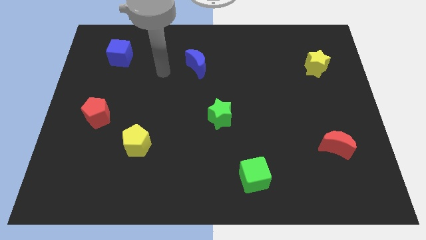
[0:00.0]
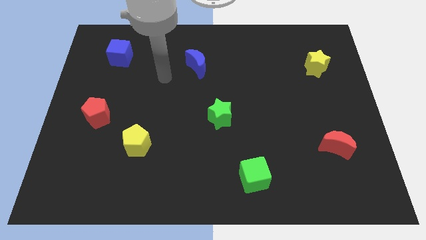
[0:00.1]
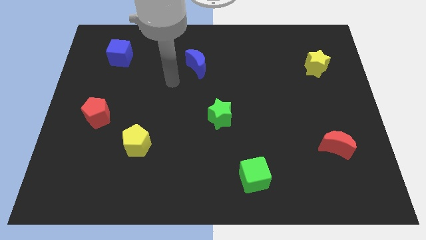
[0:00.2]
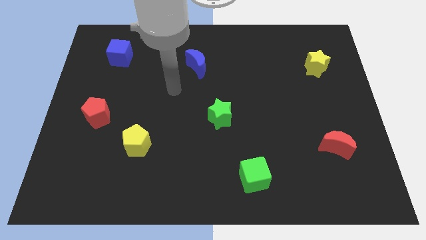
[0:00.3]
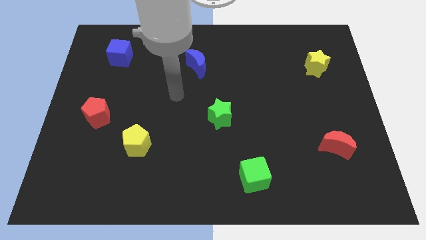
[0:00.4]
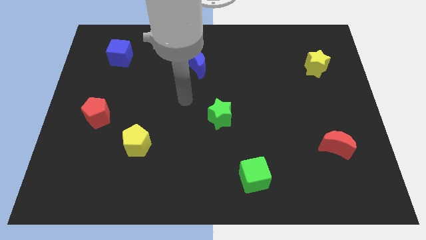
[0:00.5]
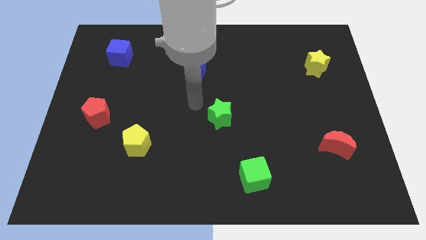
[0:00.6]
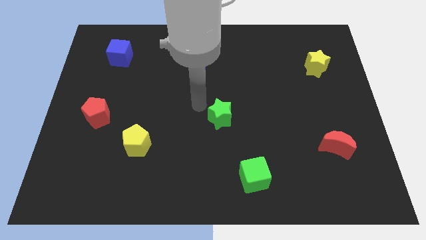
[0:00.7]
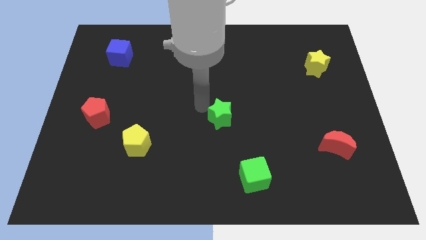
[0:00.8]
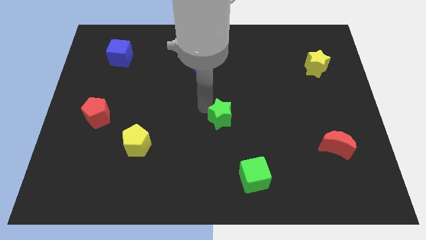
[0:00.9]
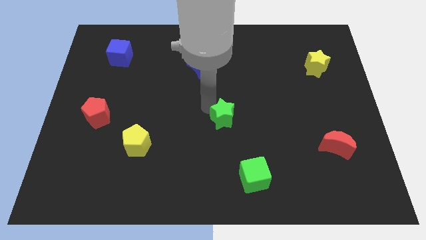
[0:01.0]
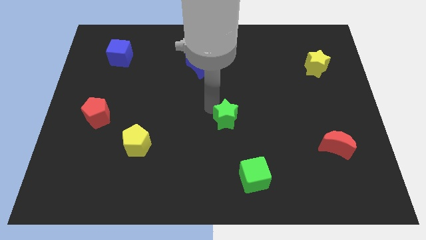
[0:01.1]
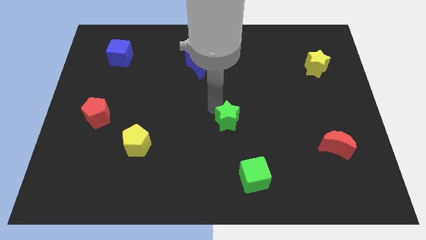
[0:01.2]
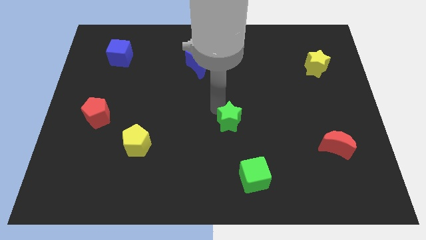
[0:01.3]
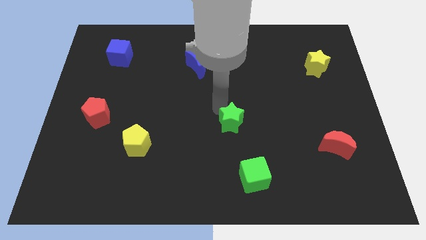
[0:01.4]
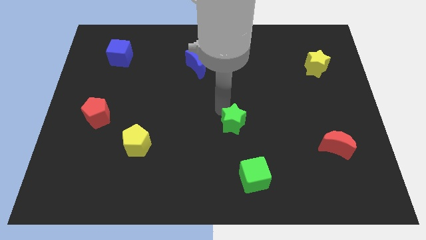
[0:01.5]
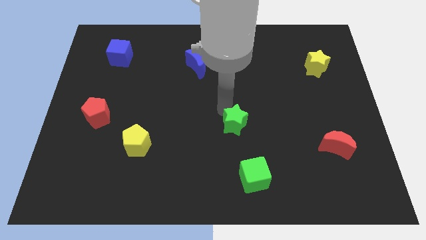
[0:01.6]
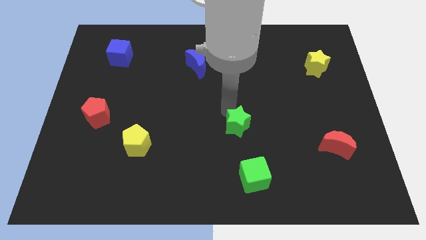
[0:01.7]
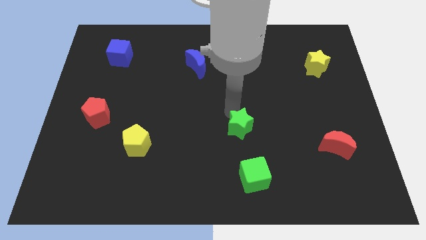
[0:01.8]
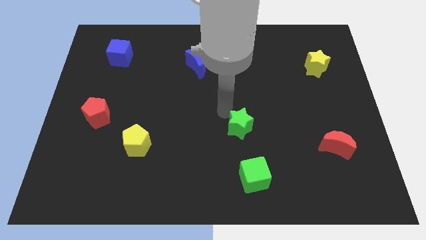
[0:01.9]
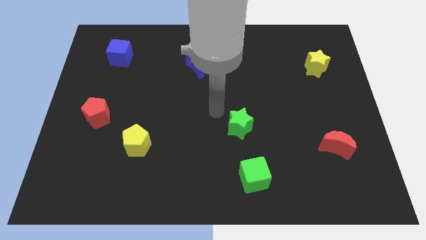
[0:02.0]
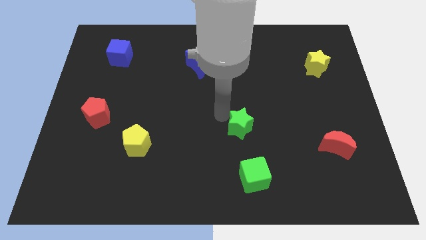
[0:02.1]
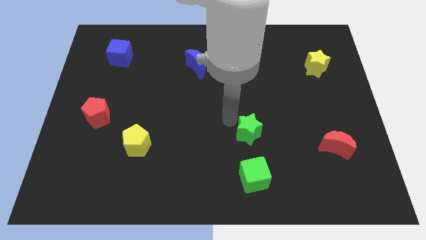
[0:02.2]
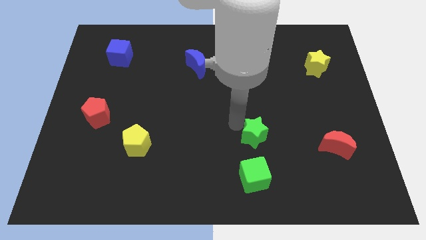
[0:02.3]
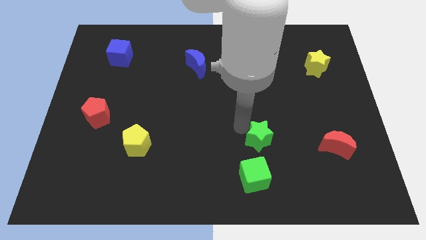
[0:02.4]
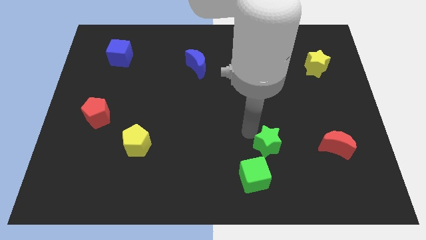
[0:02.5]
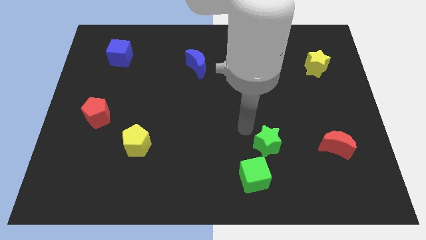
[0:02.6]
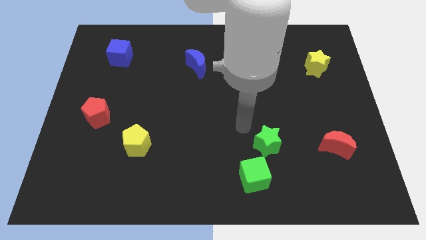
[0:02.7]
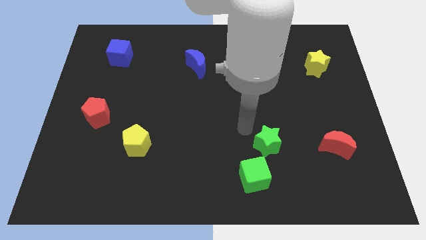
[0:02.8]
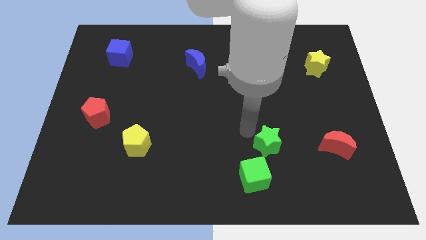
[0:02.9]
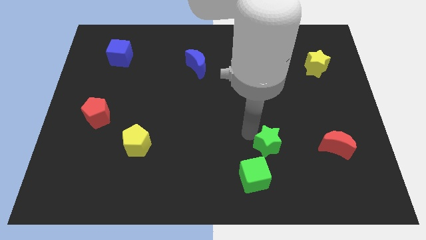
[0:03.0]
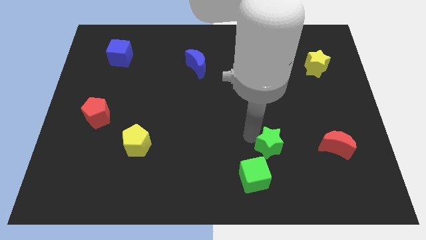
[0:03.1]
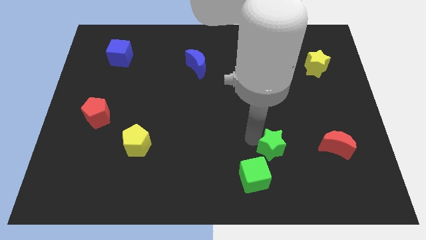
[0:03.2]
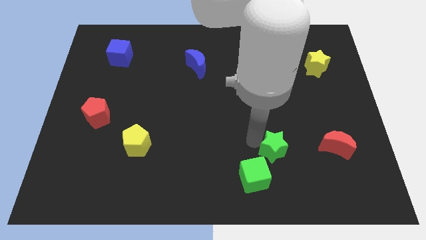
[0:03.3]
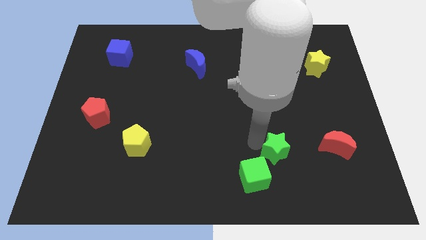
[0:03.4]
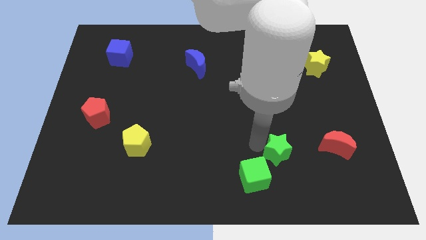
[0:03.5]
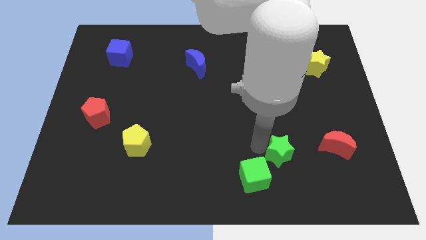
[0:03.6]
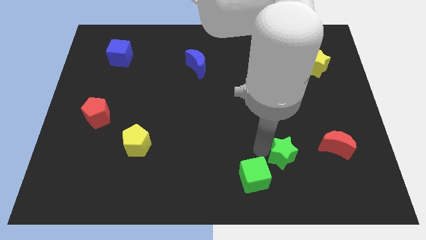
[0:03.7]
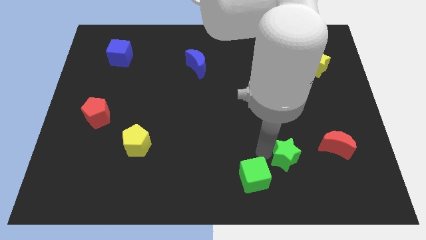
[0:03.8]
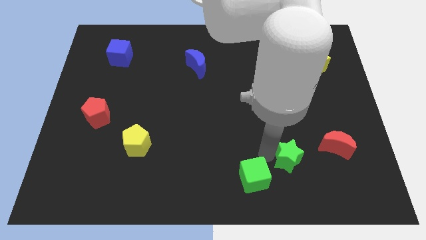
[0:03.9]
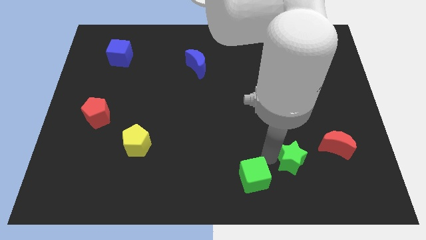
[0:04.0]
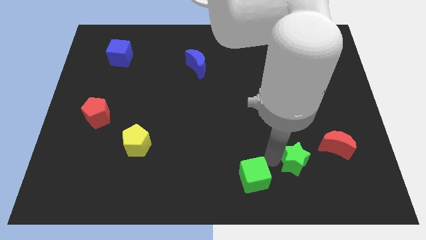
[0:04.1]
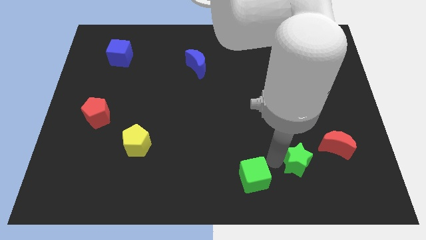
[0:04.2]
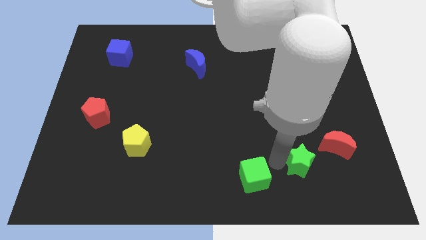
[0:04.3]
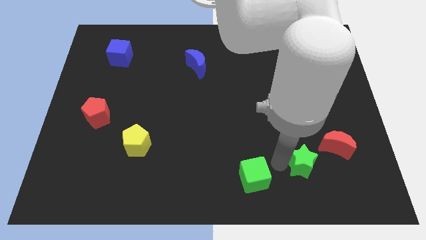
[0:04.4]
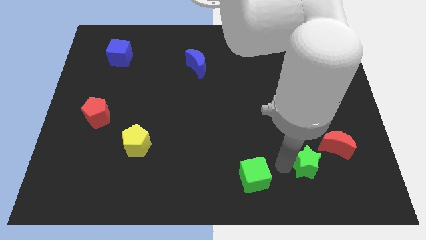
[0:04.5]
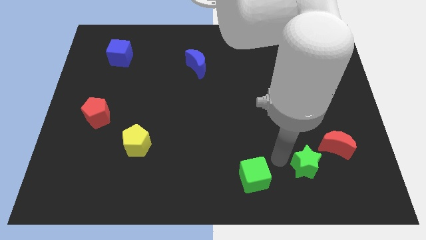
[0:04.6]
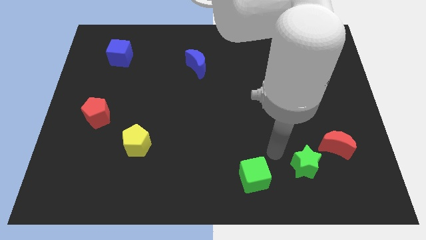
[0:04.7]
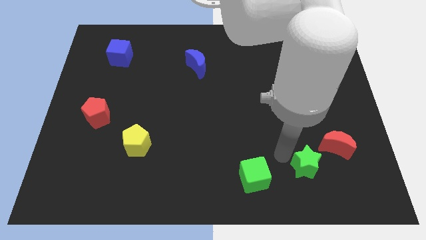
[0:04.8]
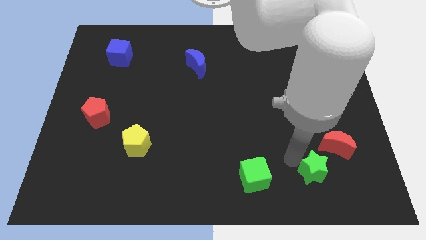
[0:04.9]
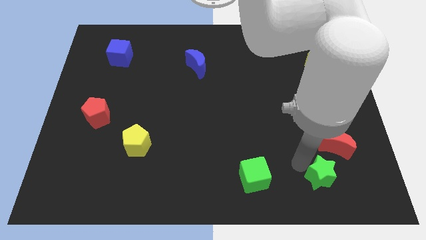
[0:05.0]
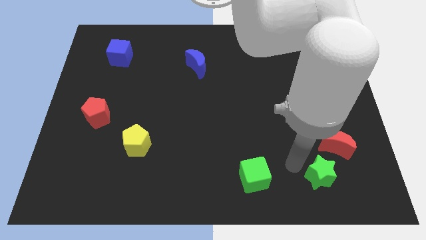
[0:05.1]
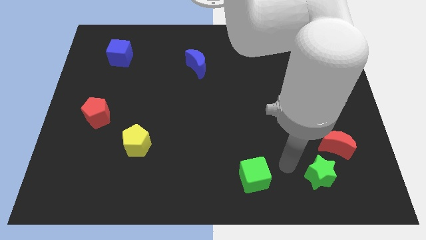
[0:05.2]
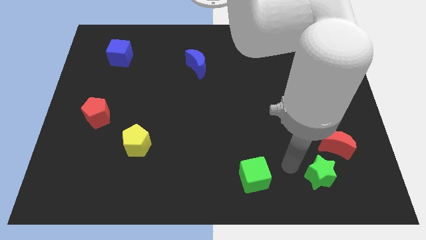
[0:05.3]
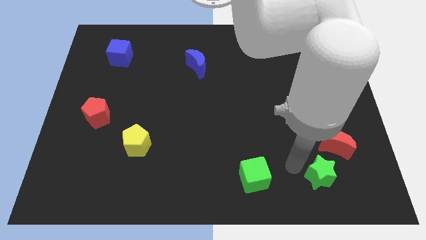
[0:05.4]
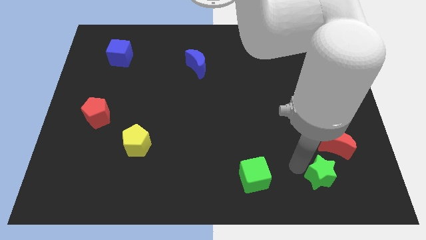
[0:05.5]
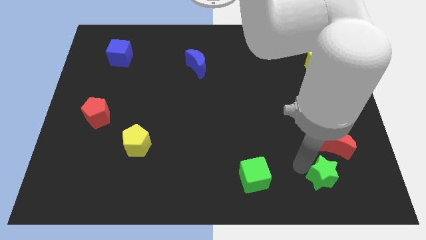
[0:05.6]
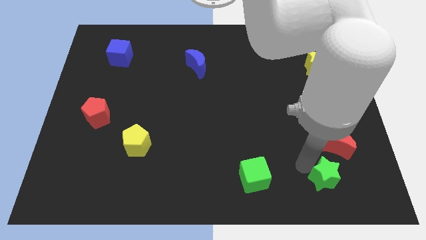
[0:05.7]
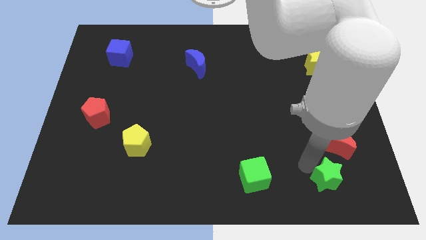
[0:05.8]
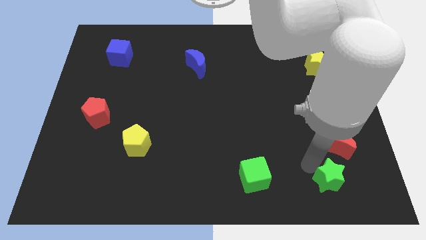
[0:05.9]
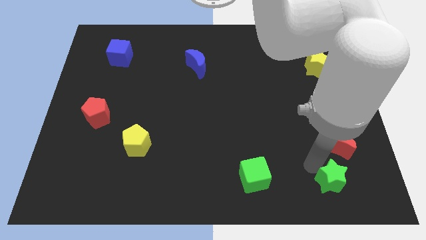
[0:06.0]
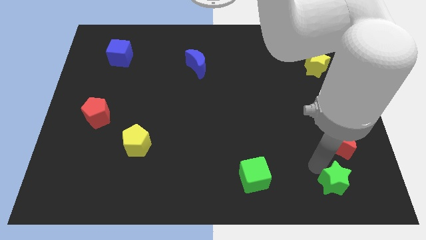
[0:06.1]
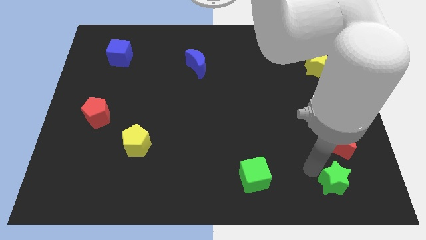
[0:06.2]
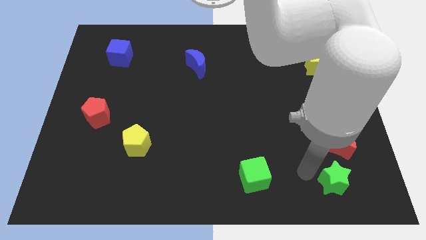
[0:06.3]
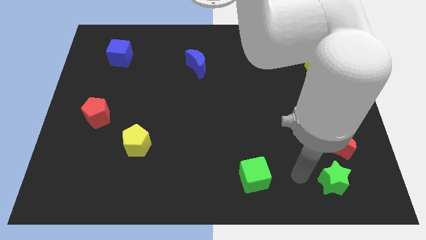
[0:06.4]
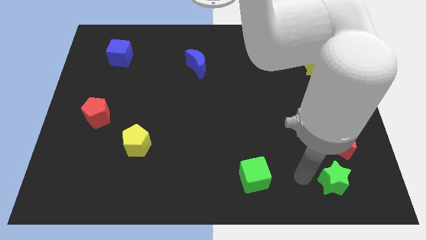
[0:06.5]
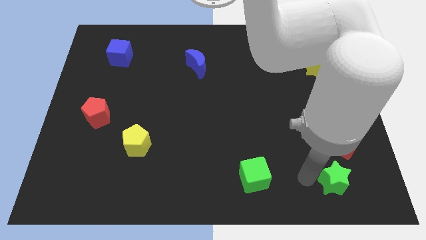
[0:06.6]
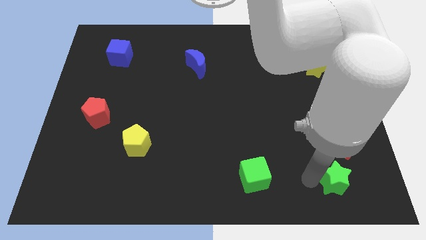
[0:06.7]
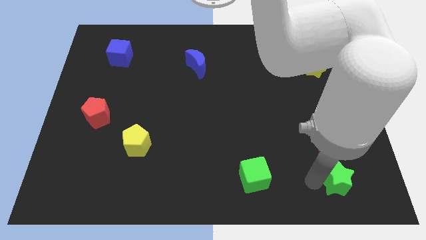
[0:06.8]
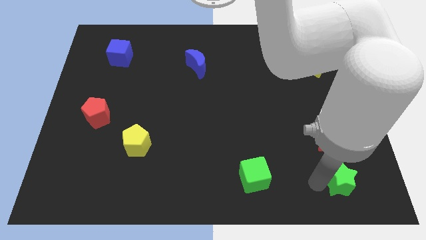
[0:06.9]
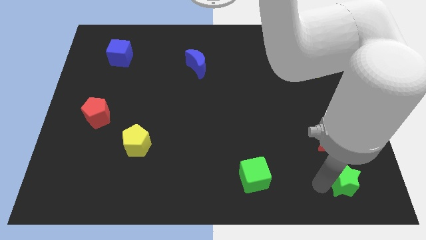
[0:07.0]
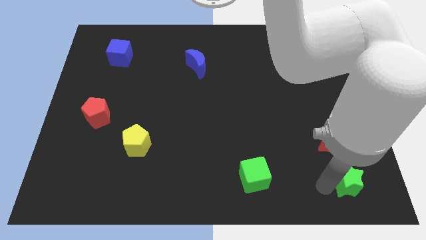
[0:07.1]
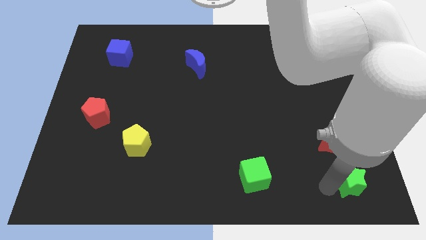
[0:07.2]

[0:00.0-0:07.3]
move the green star to the bottom right

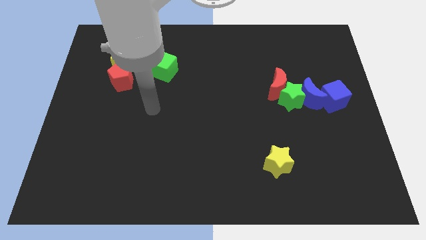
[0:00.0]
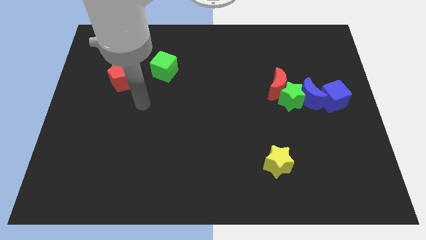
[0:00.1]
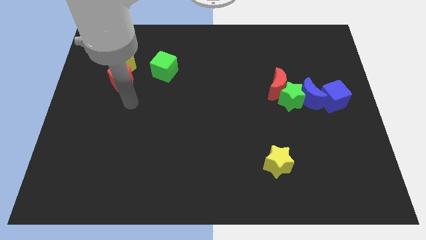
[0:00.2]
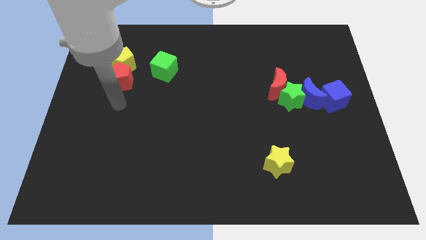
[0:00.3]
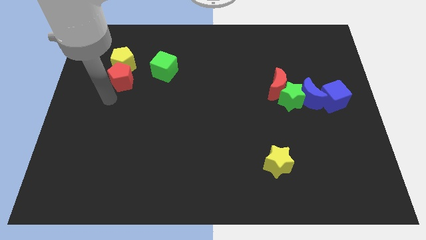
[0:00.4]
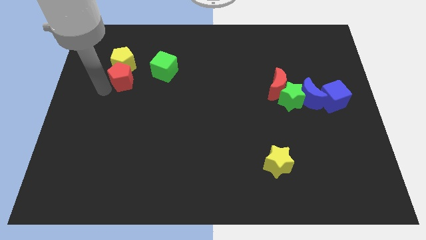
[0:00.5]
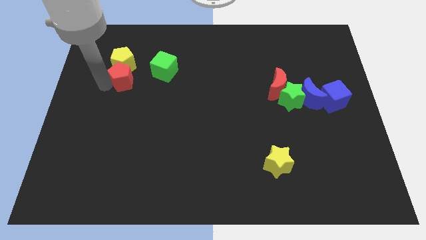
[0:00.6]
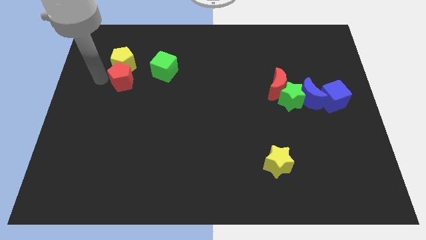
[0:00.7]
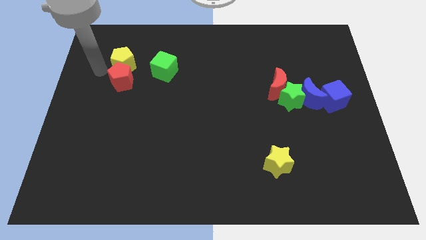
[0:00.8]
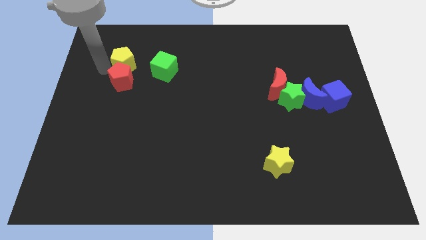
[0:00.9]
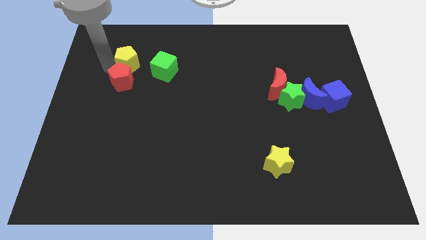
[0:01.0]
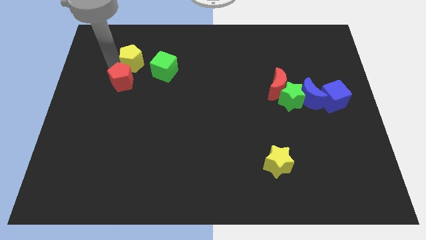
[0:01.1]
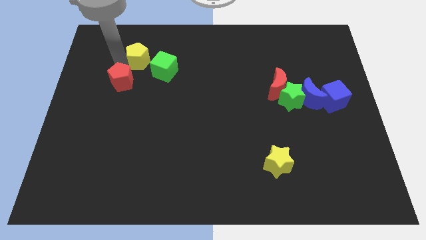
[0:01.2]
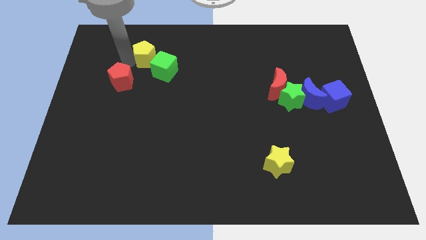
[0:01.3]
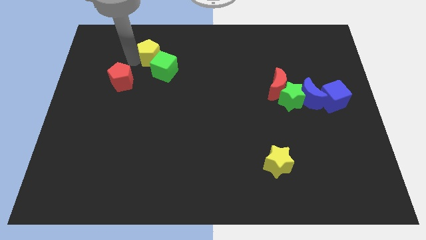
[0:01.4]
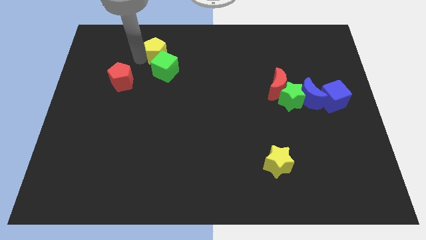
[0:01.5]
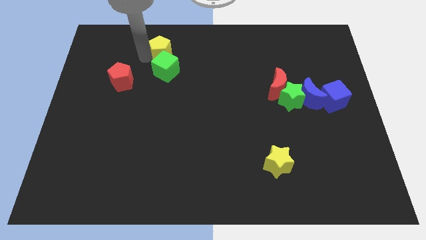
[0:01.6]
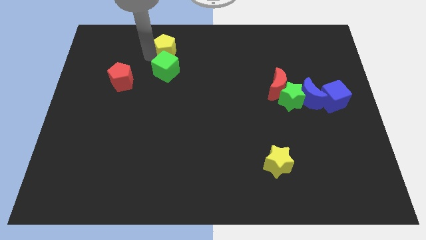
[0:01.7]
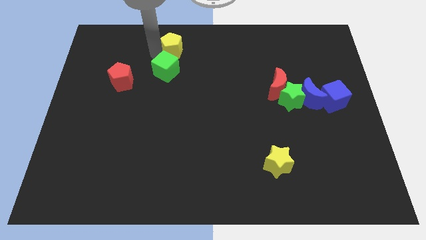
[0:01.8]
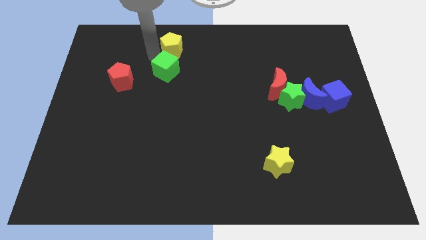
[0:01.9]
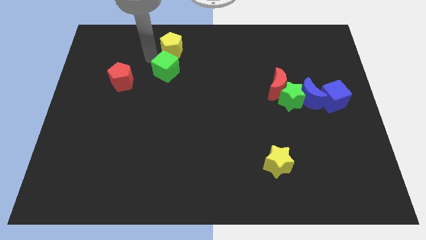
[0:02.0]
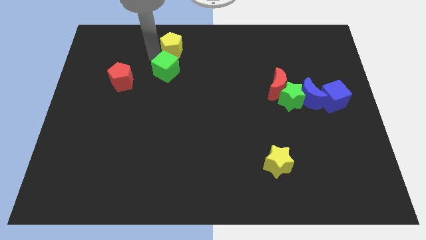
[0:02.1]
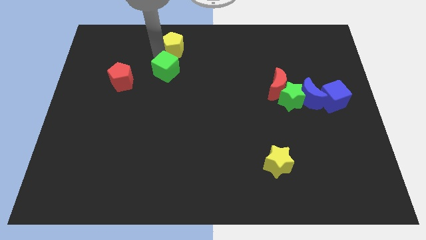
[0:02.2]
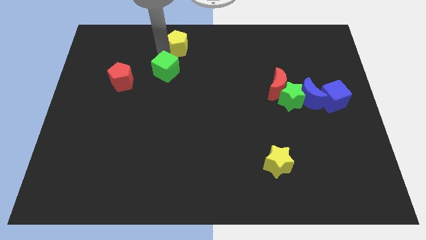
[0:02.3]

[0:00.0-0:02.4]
move the yellow pentagon to the top side
